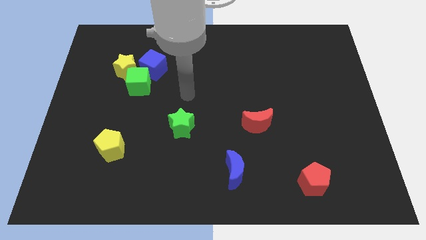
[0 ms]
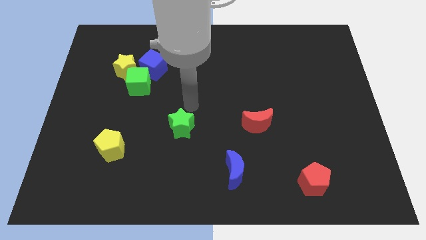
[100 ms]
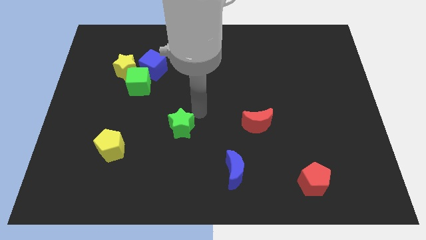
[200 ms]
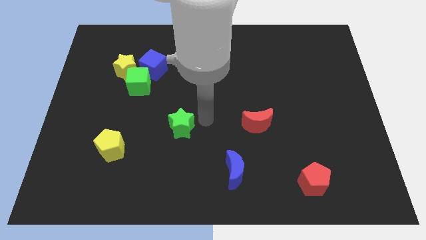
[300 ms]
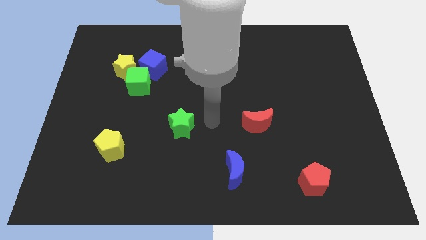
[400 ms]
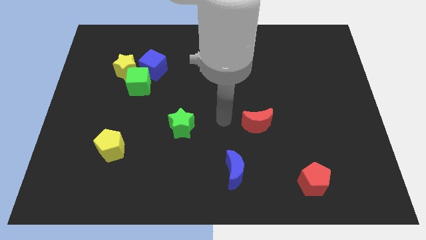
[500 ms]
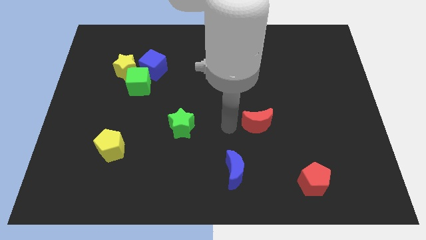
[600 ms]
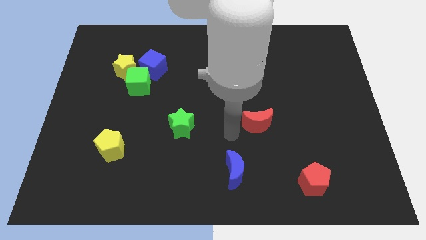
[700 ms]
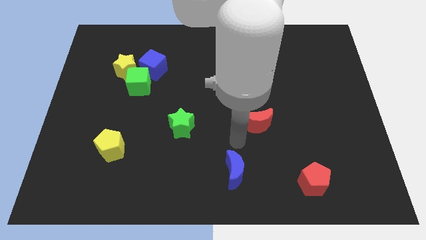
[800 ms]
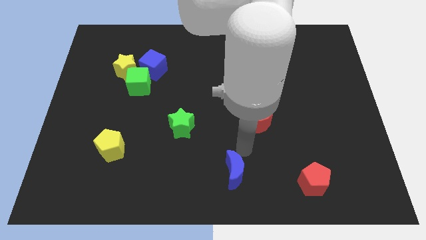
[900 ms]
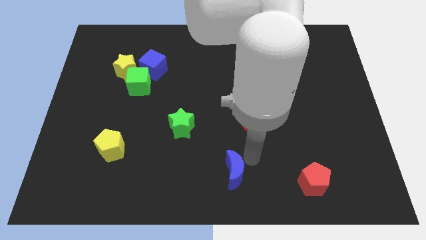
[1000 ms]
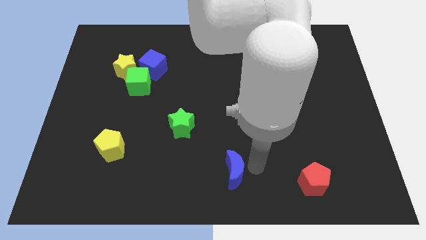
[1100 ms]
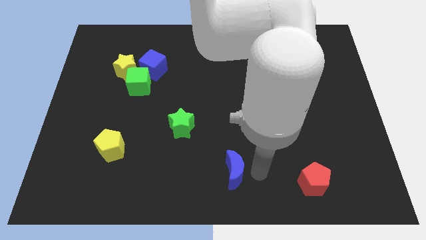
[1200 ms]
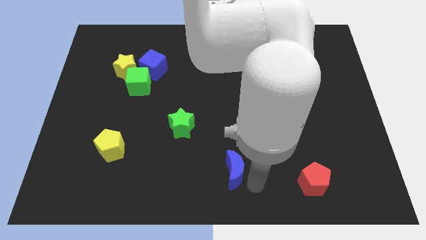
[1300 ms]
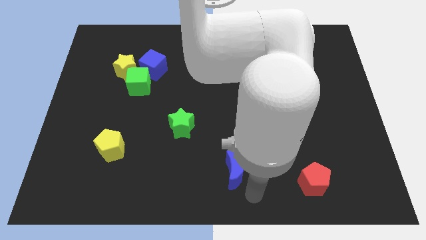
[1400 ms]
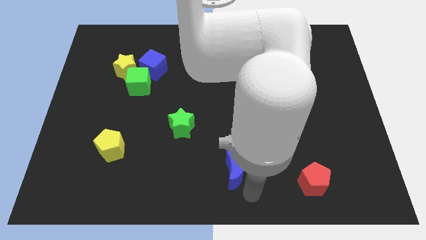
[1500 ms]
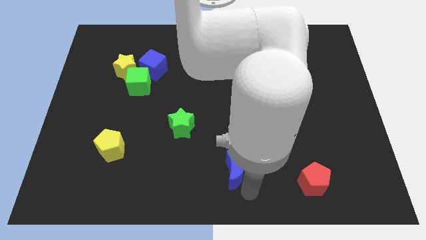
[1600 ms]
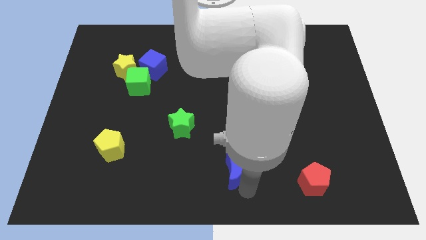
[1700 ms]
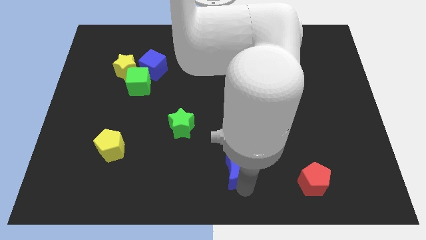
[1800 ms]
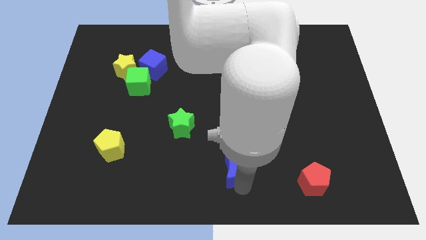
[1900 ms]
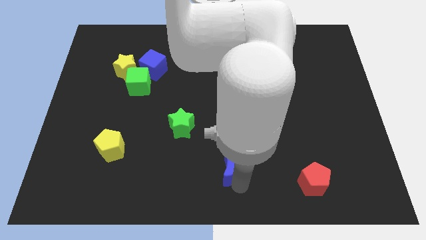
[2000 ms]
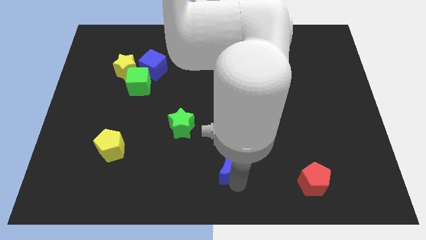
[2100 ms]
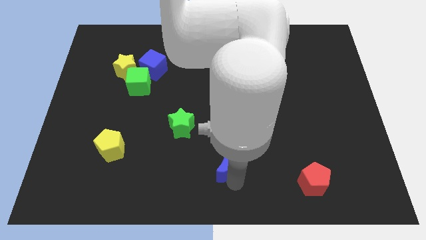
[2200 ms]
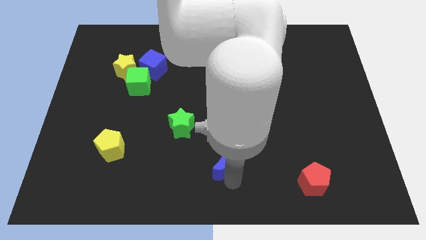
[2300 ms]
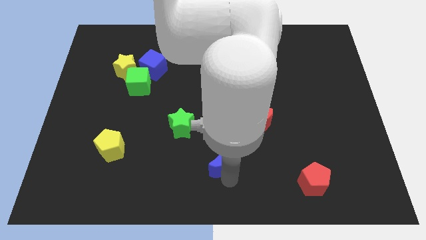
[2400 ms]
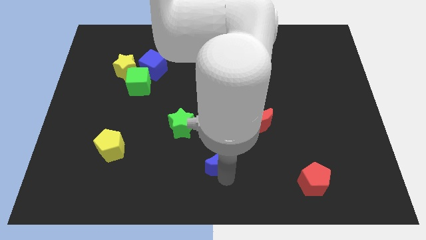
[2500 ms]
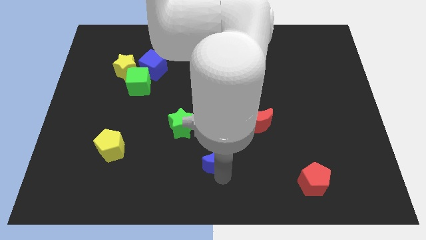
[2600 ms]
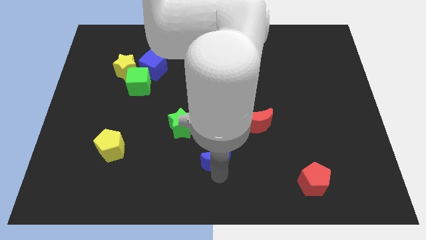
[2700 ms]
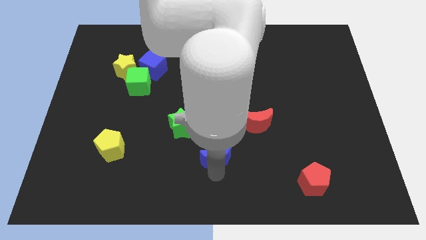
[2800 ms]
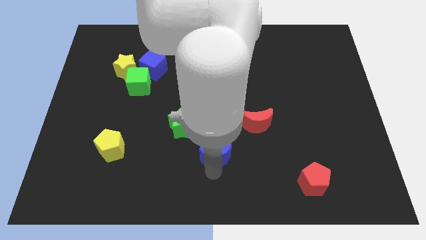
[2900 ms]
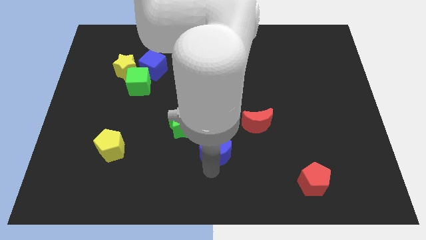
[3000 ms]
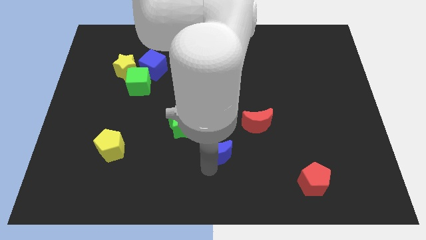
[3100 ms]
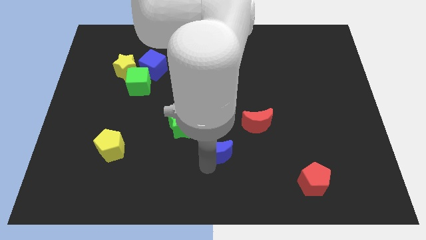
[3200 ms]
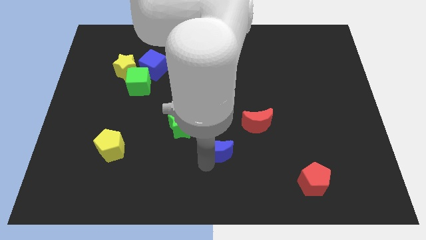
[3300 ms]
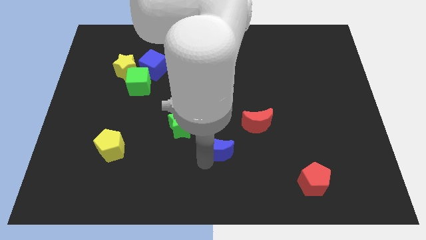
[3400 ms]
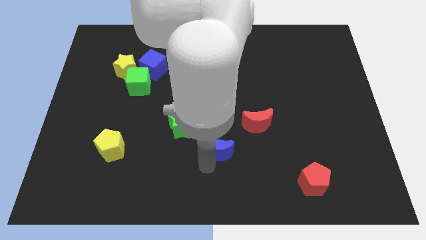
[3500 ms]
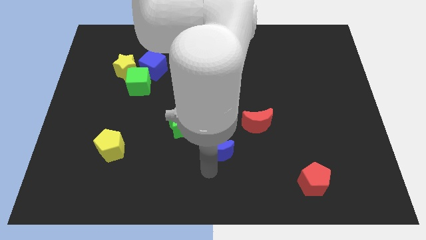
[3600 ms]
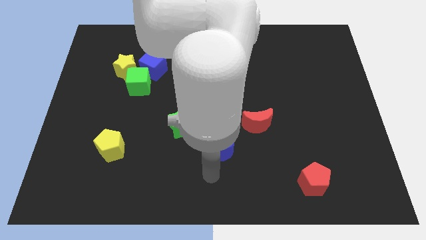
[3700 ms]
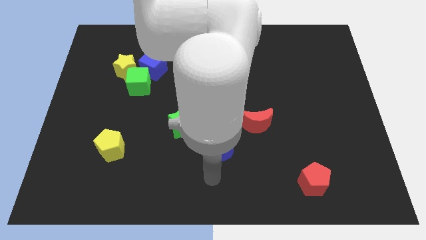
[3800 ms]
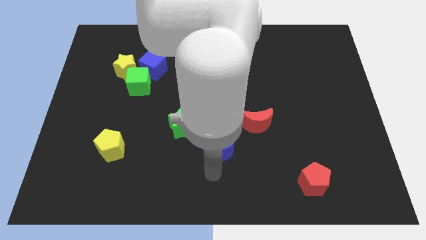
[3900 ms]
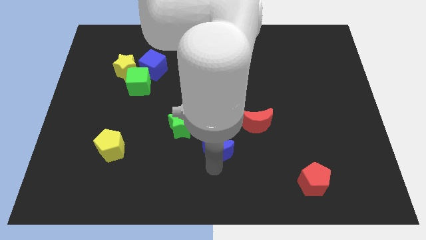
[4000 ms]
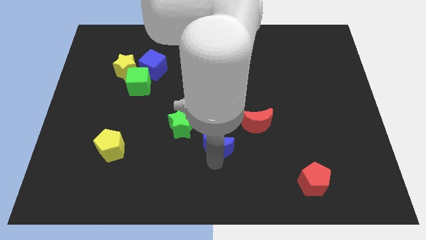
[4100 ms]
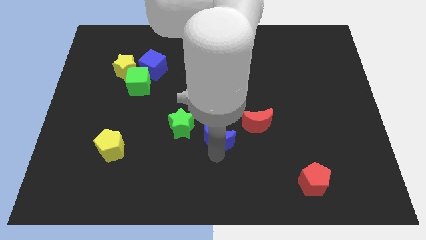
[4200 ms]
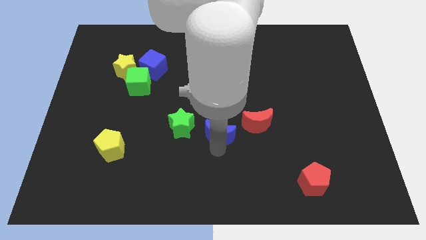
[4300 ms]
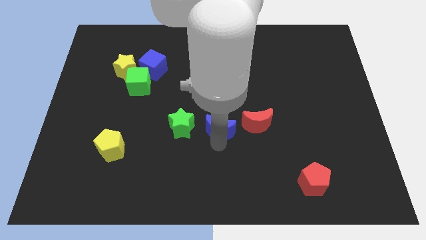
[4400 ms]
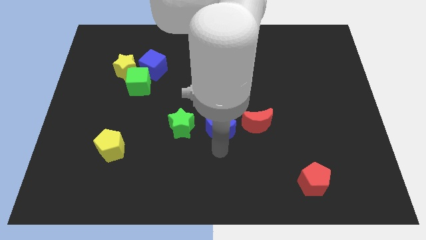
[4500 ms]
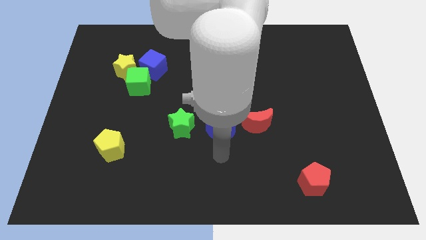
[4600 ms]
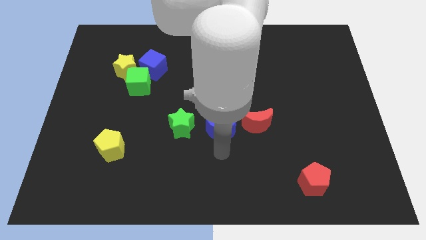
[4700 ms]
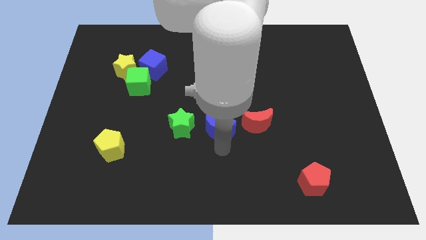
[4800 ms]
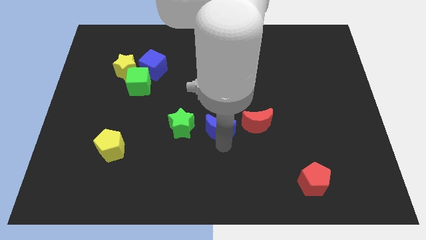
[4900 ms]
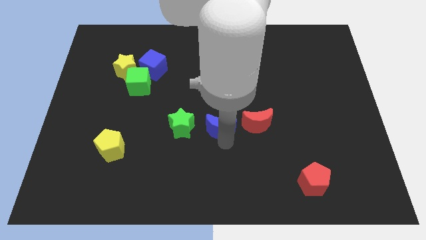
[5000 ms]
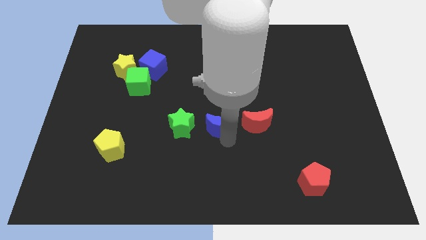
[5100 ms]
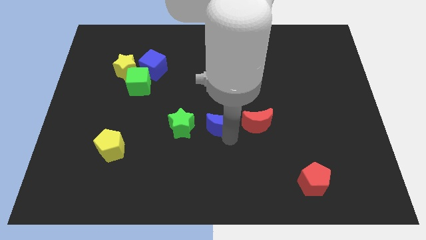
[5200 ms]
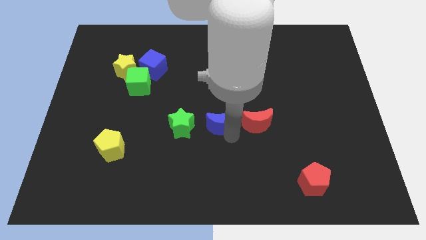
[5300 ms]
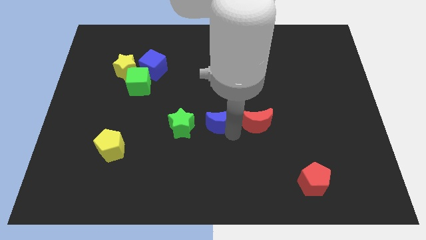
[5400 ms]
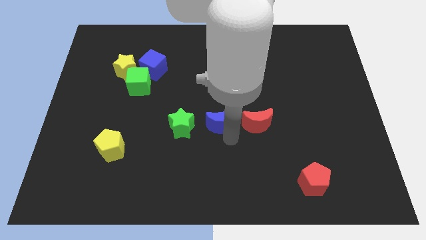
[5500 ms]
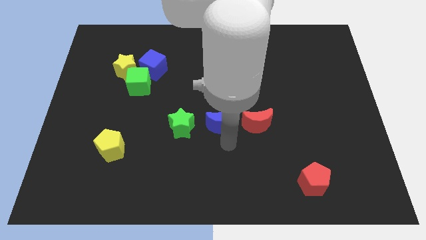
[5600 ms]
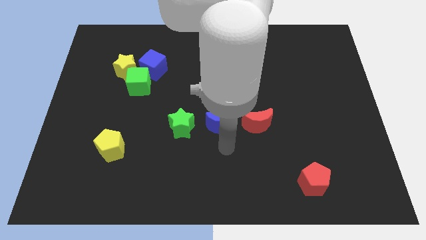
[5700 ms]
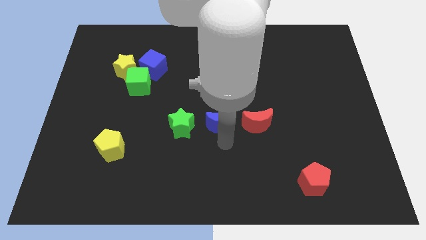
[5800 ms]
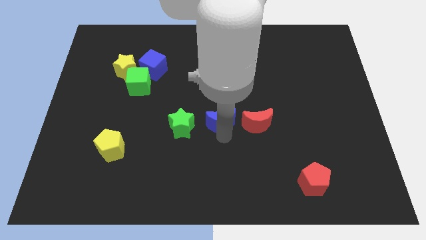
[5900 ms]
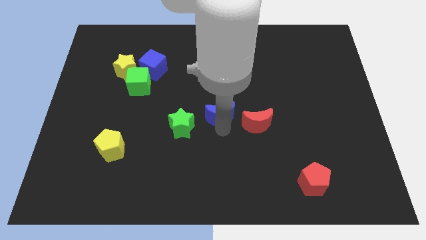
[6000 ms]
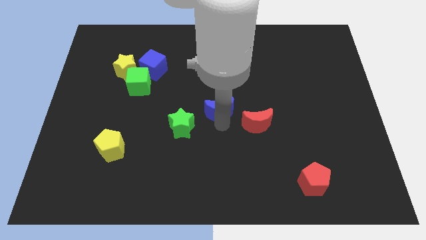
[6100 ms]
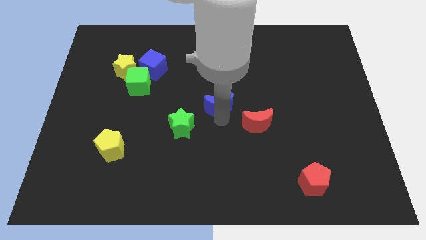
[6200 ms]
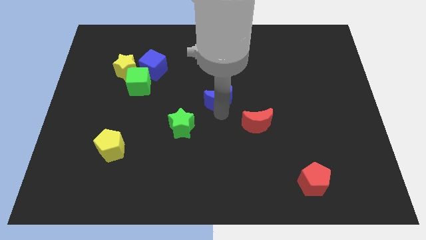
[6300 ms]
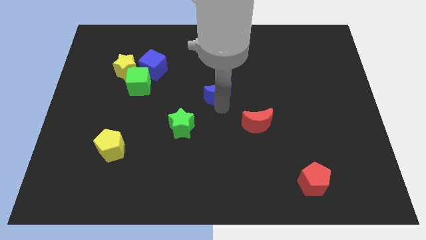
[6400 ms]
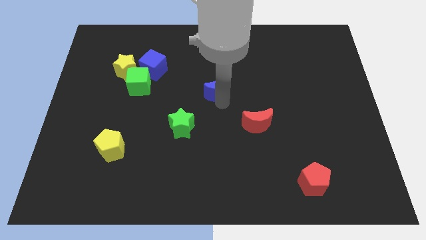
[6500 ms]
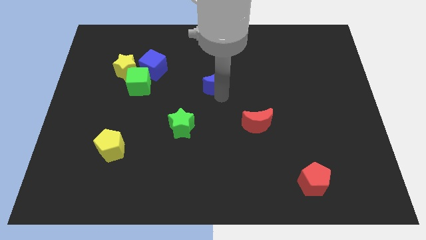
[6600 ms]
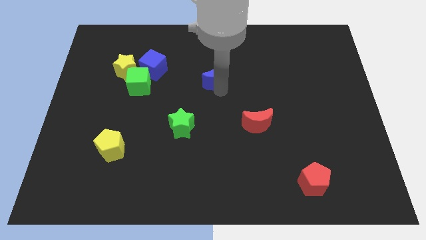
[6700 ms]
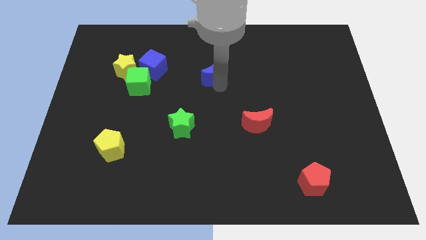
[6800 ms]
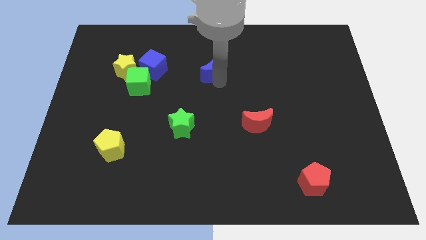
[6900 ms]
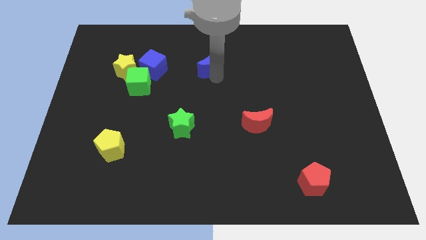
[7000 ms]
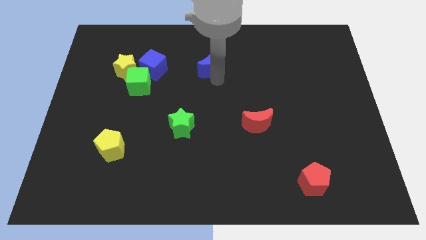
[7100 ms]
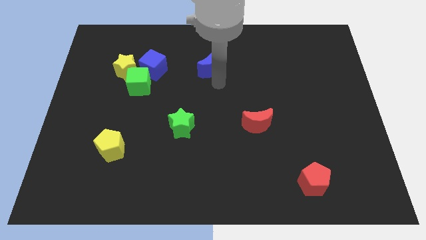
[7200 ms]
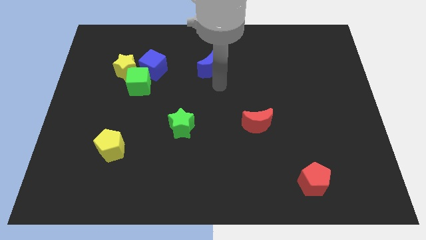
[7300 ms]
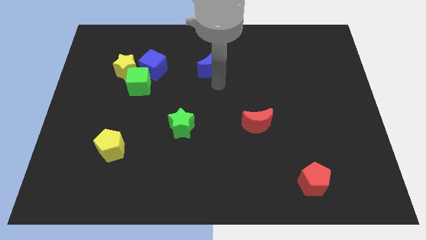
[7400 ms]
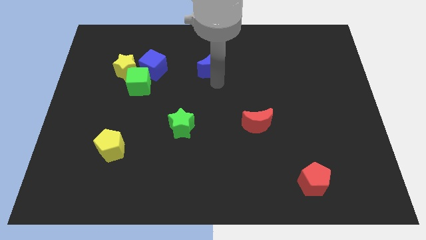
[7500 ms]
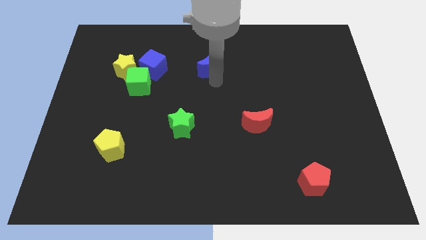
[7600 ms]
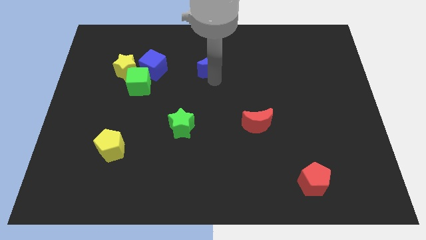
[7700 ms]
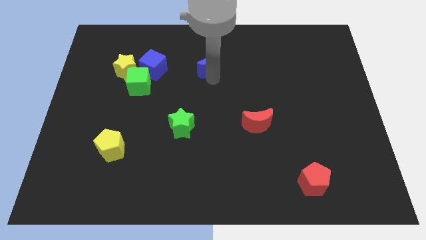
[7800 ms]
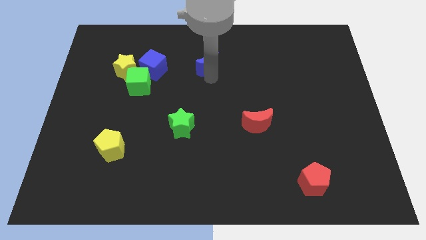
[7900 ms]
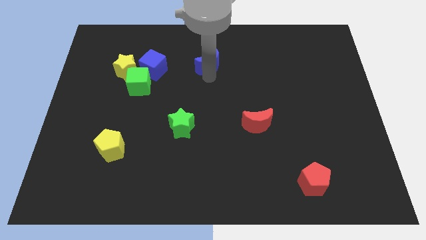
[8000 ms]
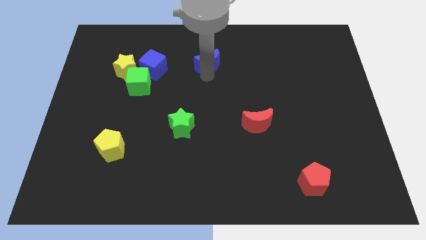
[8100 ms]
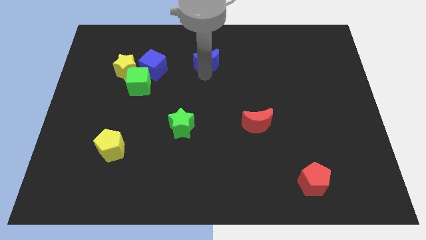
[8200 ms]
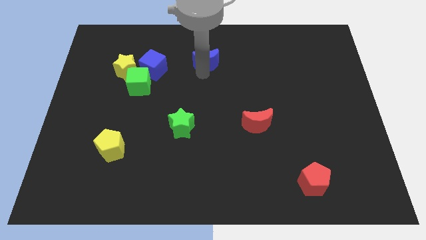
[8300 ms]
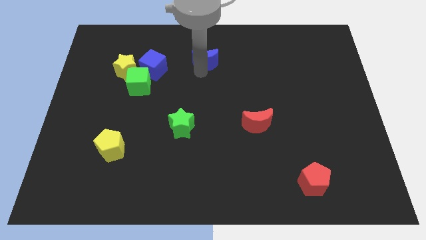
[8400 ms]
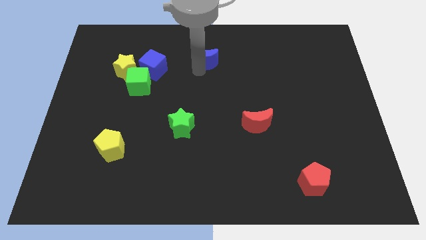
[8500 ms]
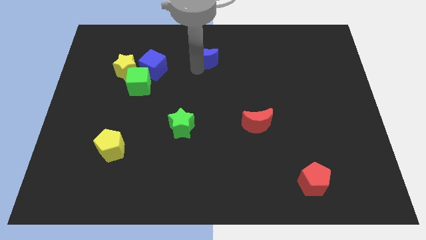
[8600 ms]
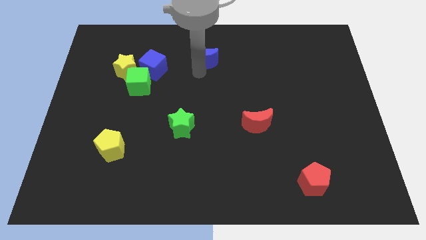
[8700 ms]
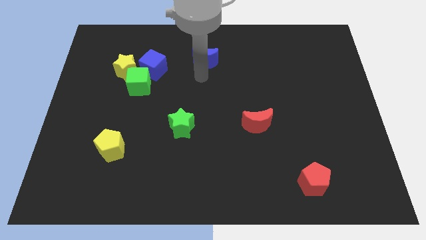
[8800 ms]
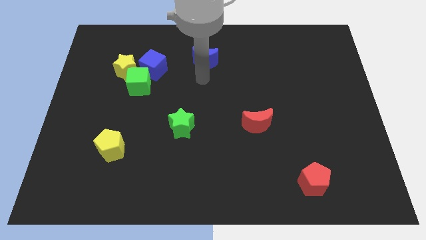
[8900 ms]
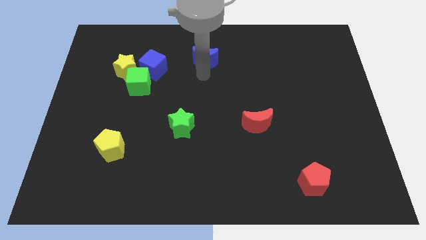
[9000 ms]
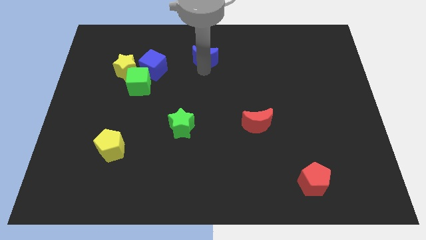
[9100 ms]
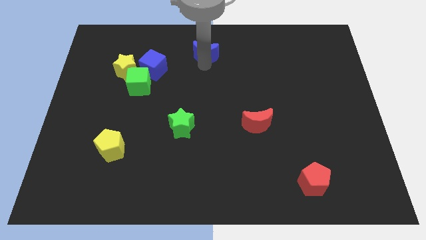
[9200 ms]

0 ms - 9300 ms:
move the blue moon to the top
